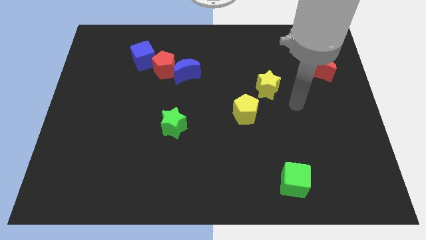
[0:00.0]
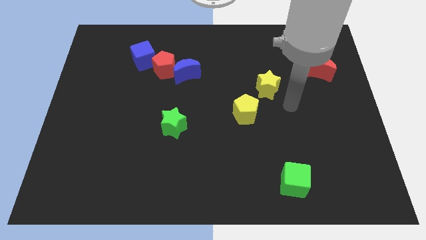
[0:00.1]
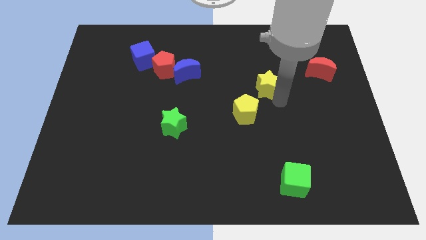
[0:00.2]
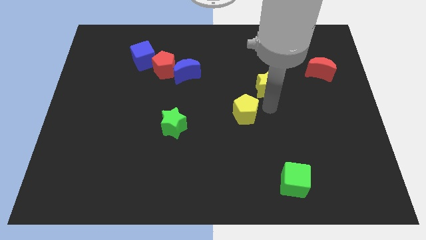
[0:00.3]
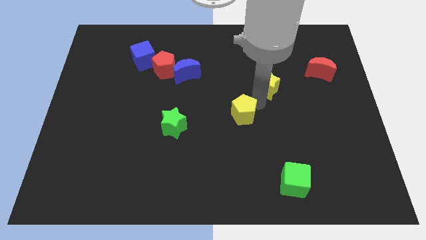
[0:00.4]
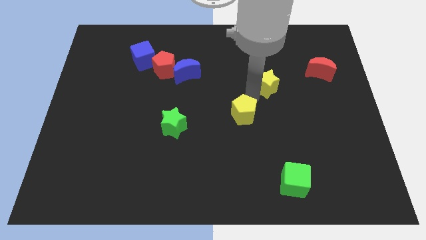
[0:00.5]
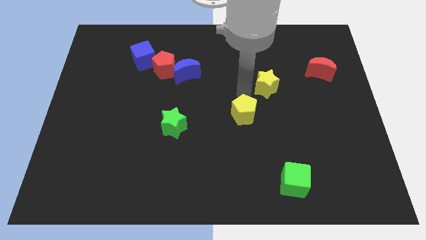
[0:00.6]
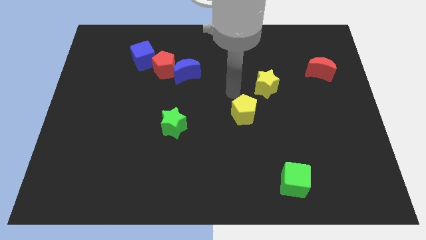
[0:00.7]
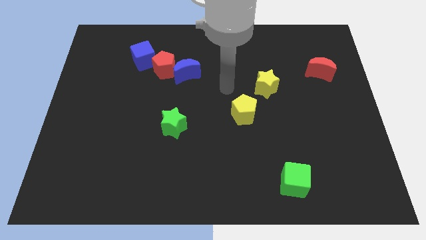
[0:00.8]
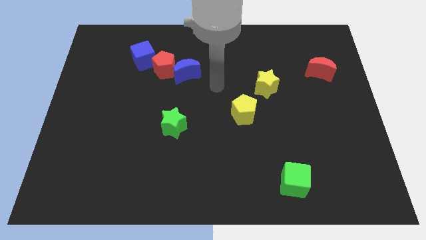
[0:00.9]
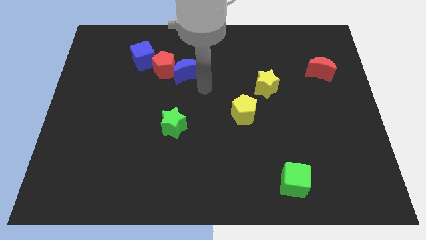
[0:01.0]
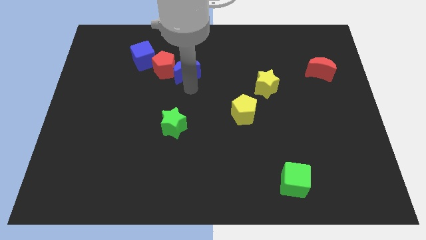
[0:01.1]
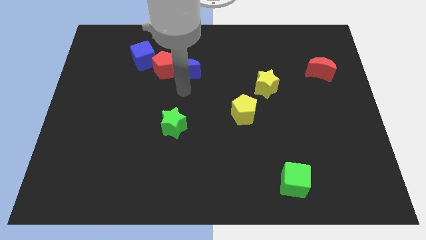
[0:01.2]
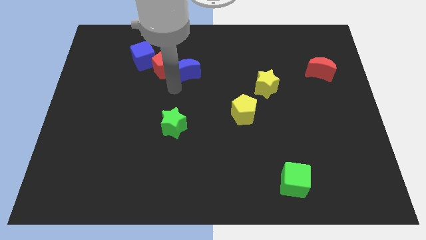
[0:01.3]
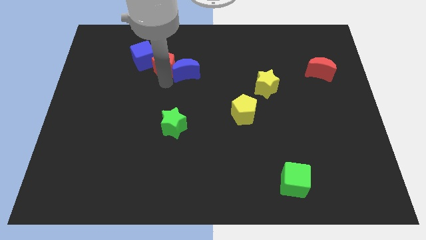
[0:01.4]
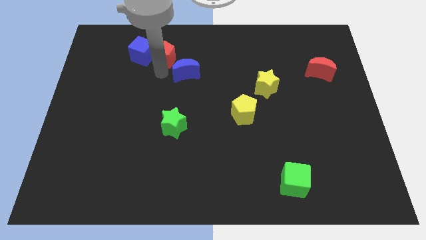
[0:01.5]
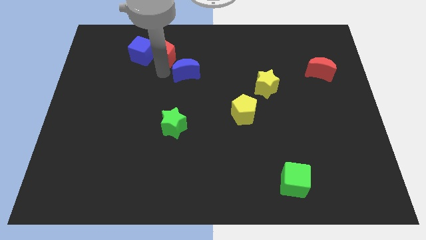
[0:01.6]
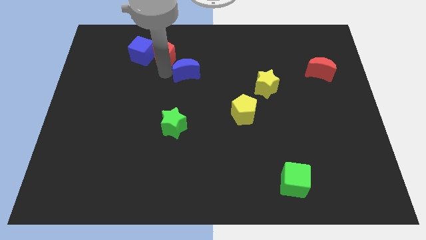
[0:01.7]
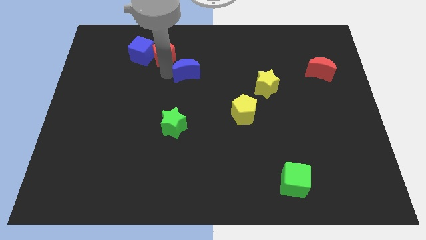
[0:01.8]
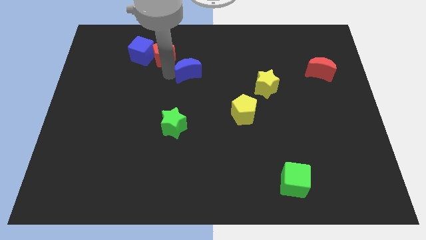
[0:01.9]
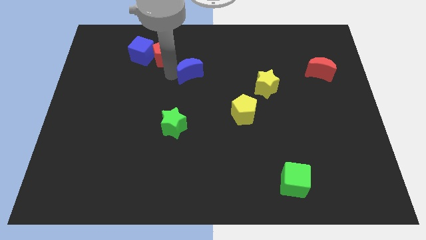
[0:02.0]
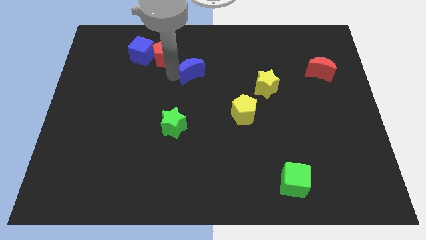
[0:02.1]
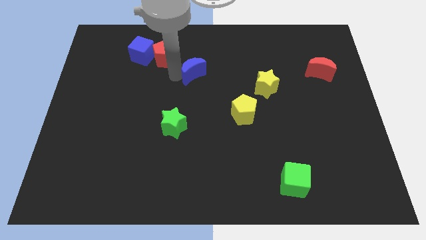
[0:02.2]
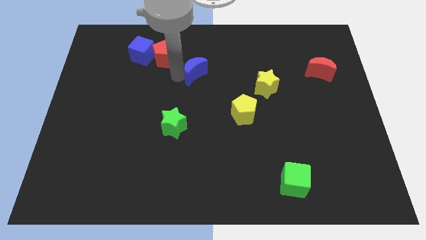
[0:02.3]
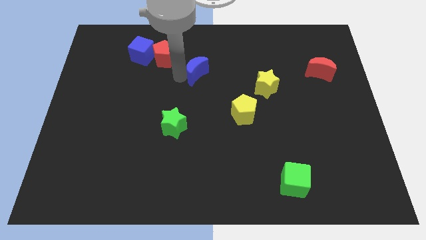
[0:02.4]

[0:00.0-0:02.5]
pull the blue moon apart from the red pentagon

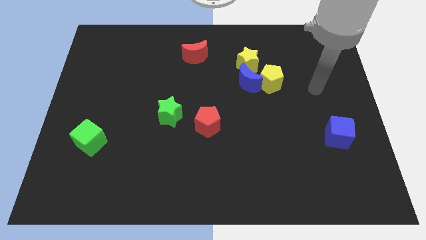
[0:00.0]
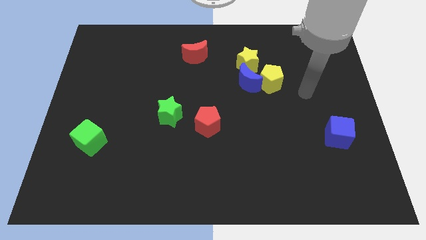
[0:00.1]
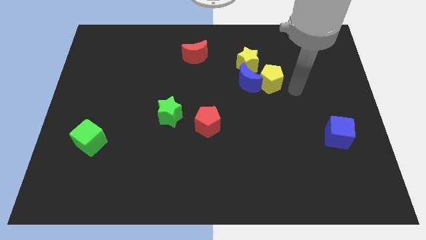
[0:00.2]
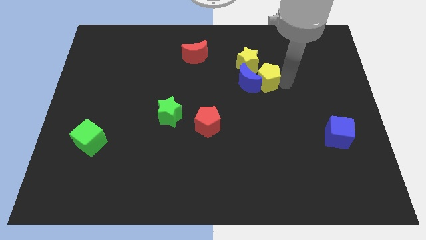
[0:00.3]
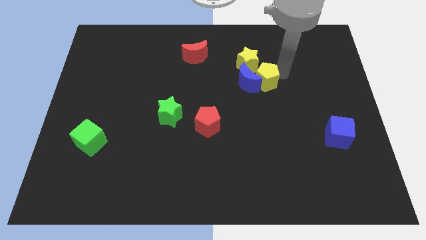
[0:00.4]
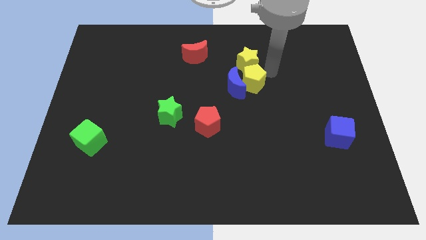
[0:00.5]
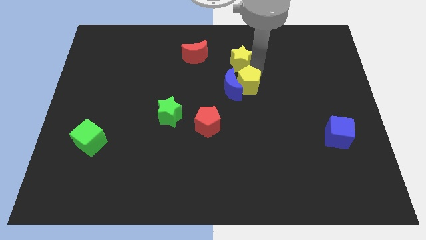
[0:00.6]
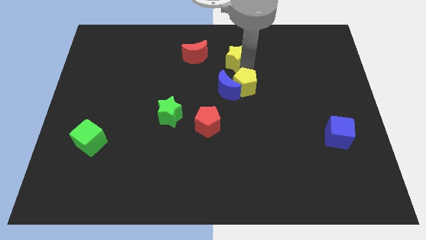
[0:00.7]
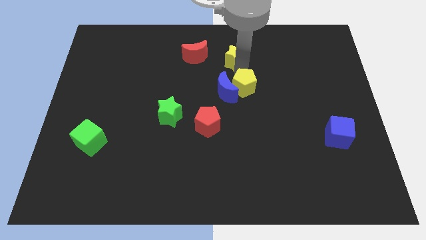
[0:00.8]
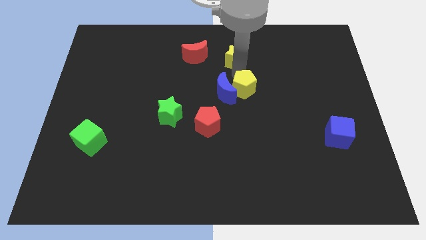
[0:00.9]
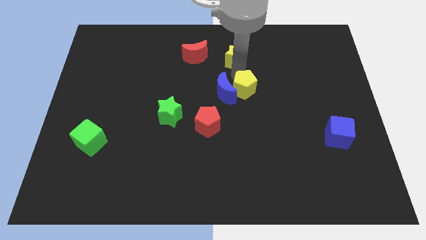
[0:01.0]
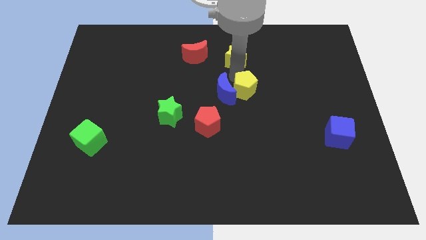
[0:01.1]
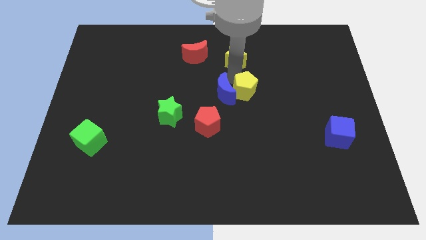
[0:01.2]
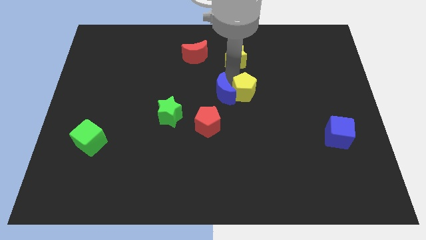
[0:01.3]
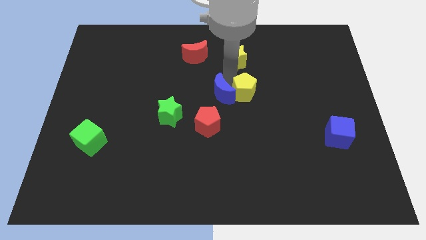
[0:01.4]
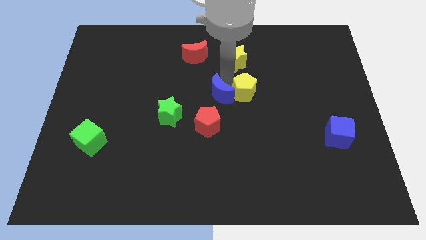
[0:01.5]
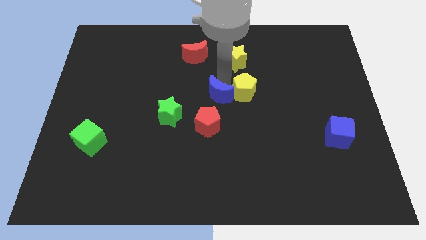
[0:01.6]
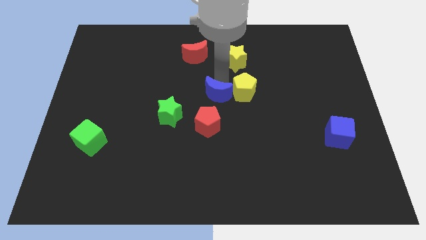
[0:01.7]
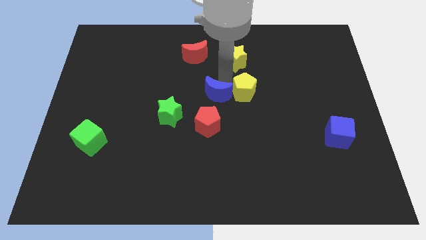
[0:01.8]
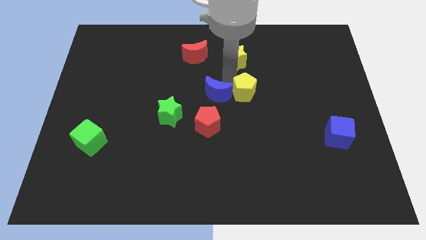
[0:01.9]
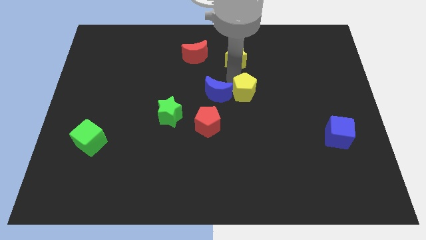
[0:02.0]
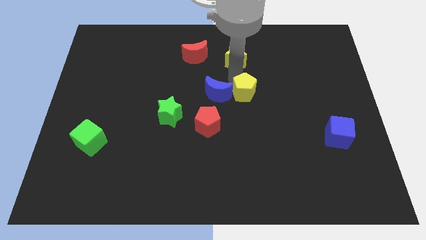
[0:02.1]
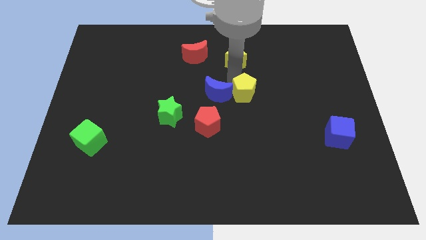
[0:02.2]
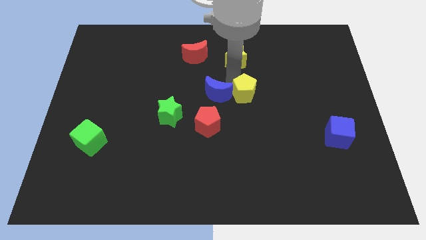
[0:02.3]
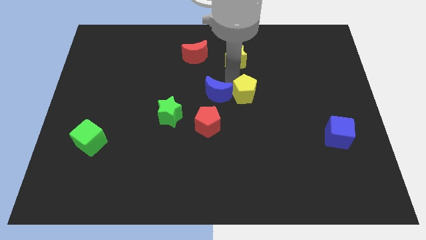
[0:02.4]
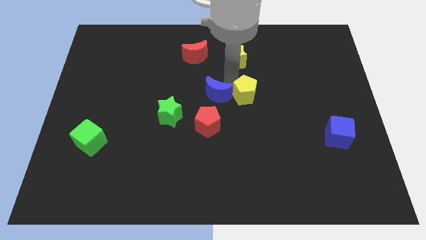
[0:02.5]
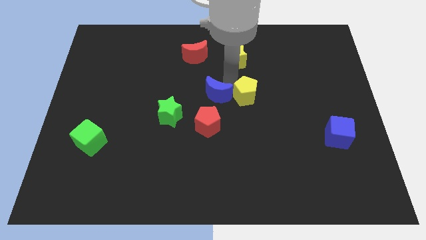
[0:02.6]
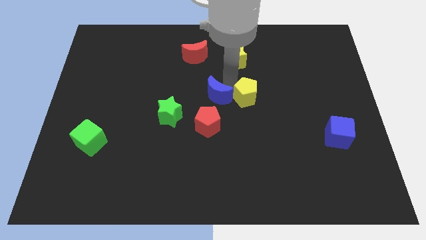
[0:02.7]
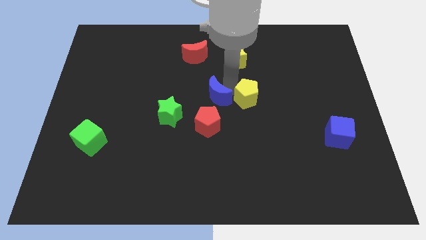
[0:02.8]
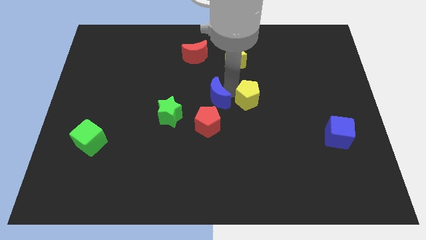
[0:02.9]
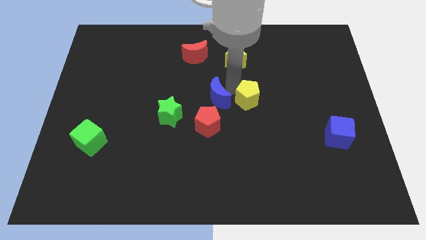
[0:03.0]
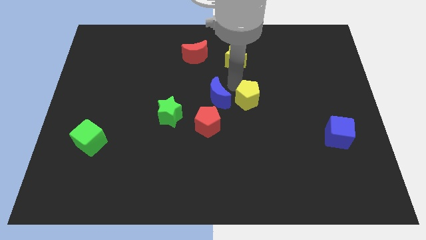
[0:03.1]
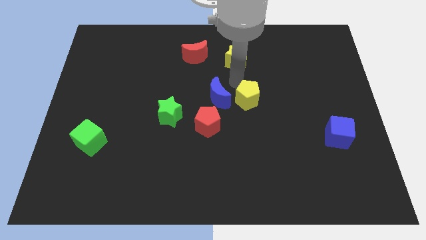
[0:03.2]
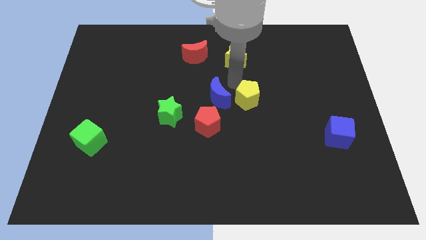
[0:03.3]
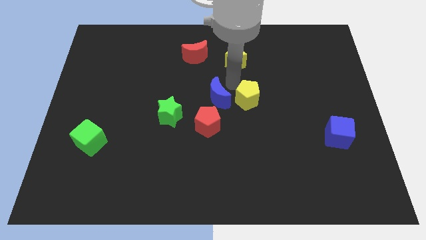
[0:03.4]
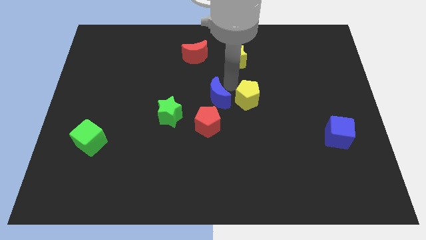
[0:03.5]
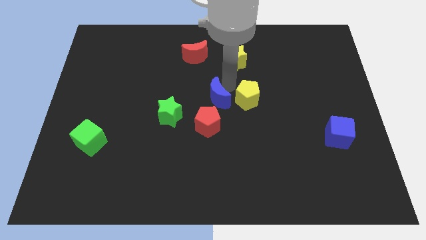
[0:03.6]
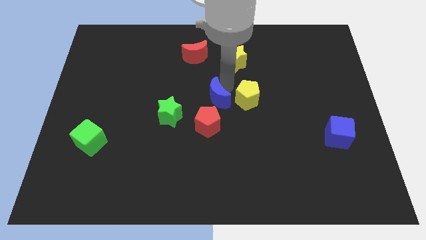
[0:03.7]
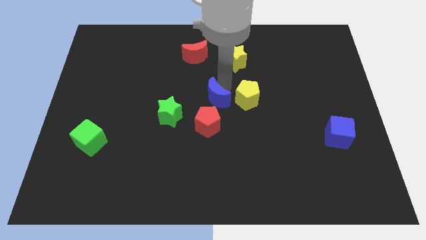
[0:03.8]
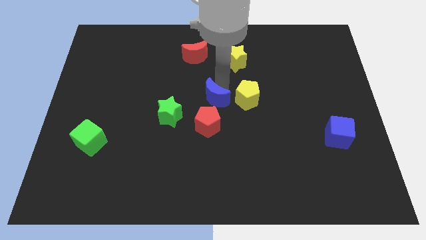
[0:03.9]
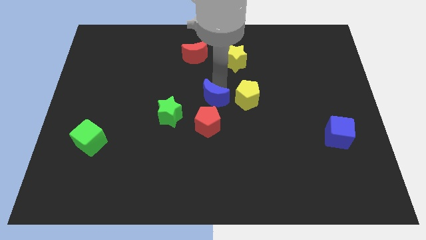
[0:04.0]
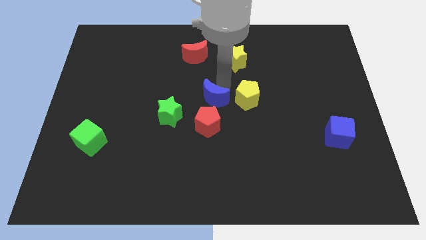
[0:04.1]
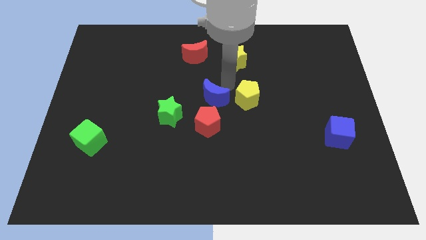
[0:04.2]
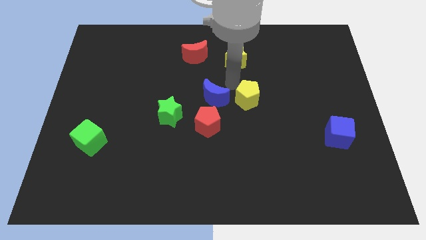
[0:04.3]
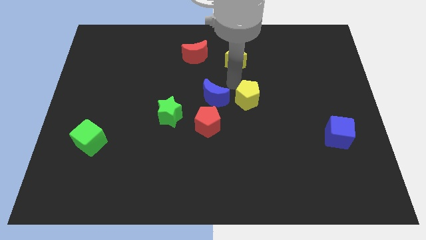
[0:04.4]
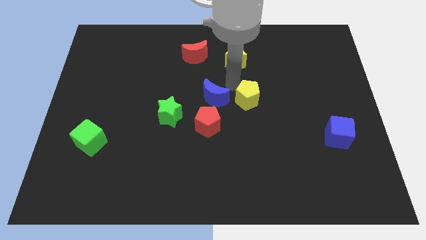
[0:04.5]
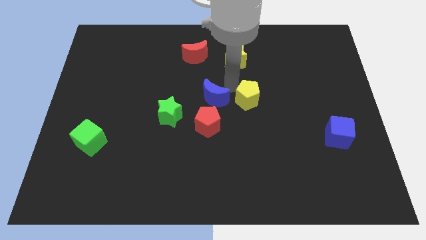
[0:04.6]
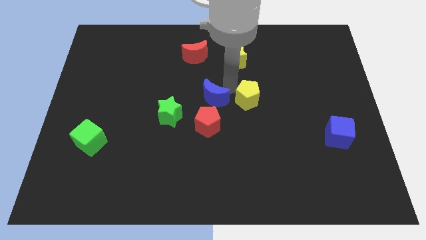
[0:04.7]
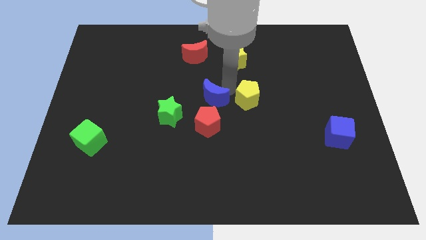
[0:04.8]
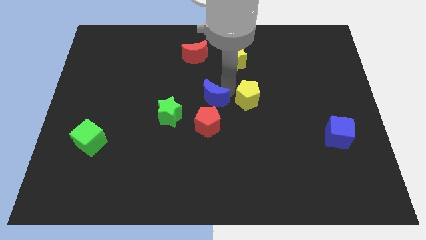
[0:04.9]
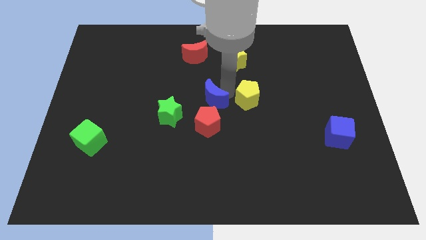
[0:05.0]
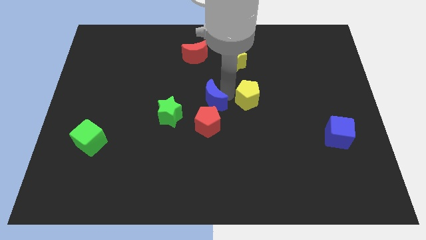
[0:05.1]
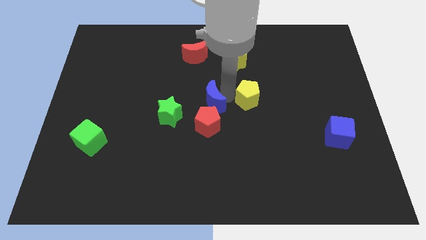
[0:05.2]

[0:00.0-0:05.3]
move the blue moon away from the yellow pentagon and yellow star

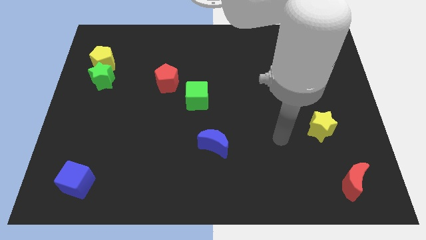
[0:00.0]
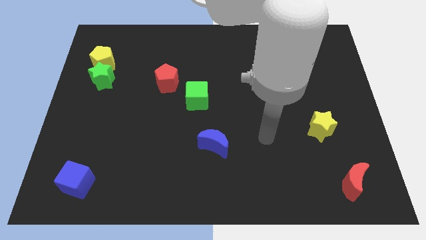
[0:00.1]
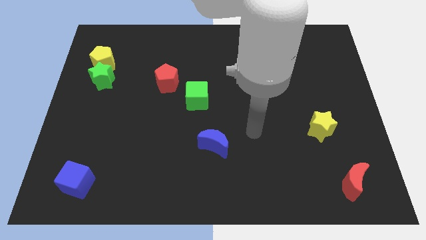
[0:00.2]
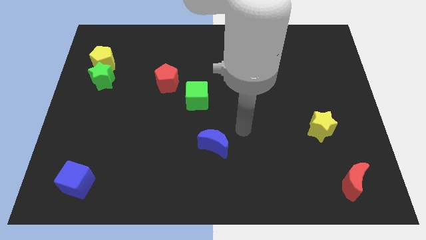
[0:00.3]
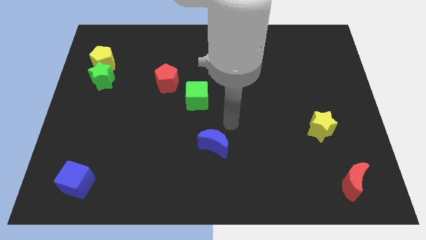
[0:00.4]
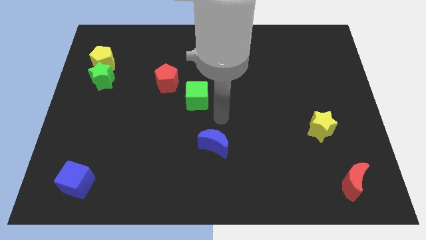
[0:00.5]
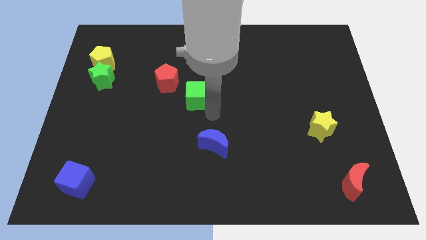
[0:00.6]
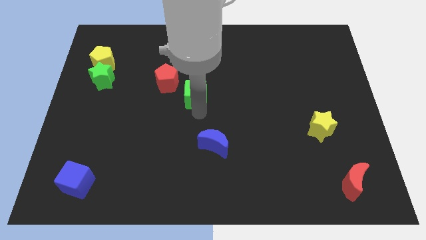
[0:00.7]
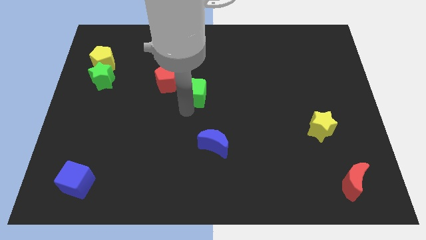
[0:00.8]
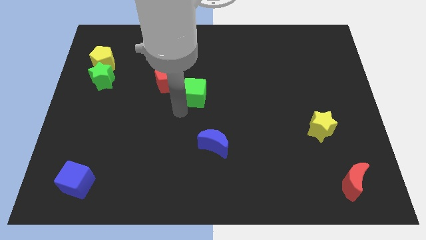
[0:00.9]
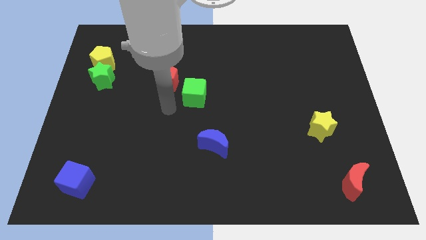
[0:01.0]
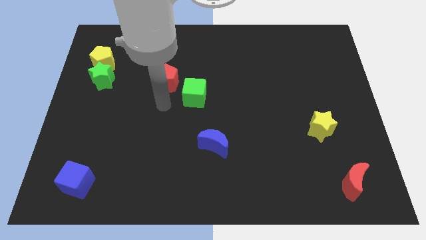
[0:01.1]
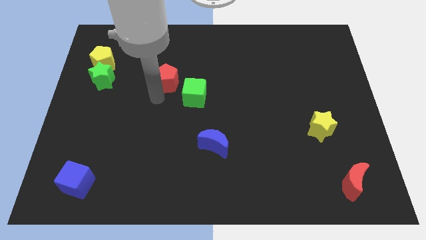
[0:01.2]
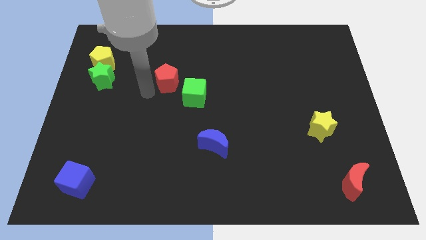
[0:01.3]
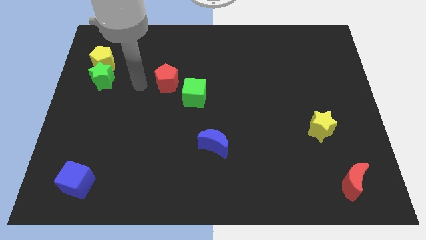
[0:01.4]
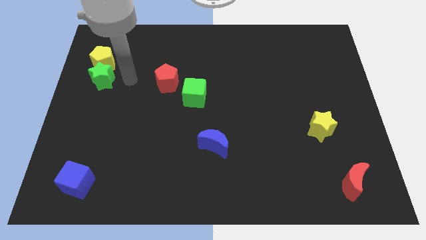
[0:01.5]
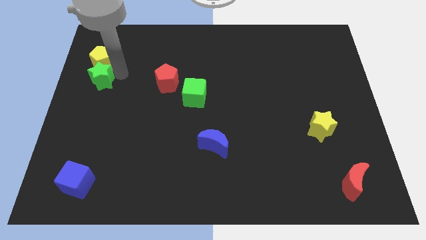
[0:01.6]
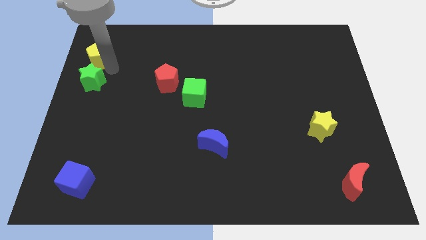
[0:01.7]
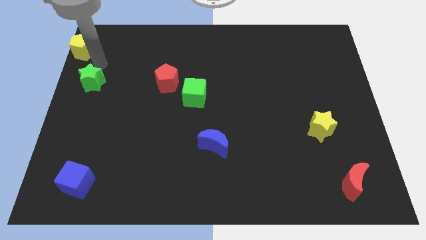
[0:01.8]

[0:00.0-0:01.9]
pull the green star apart from the yellow pentagon
